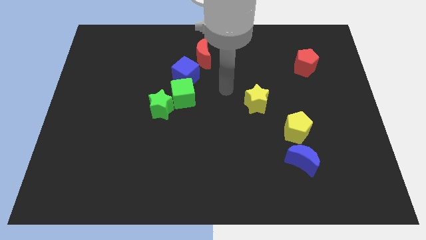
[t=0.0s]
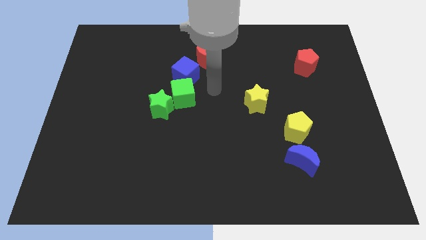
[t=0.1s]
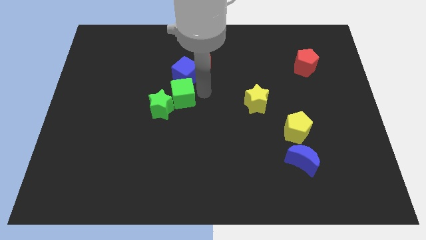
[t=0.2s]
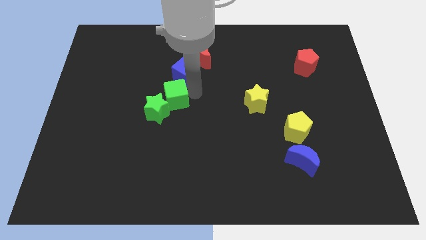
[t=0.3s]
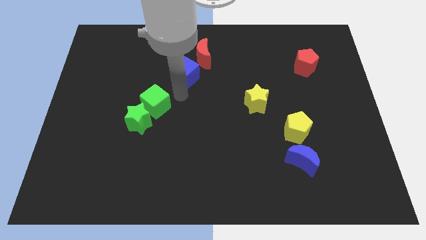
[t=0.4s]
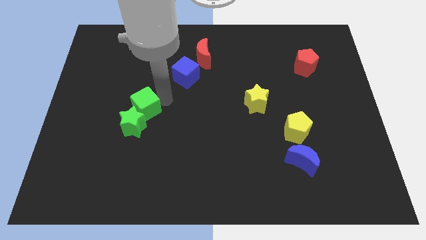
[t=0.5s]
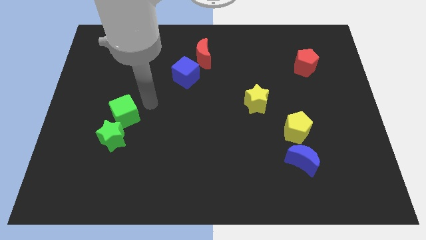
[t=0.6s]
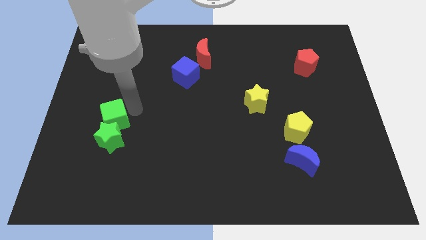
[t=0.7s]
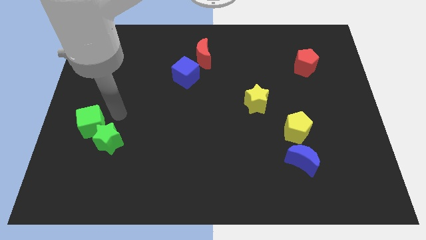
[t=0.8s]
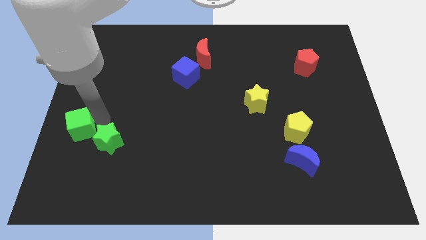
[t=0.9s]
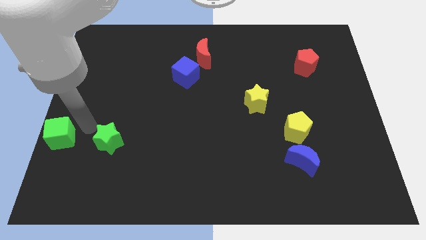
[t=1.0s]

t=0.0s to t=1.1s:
move the green star away from the green cube

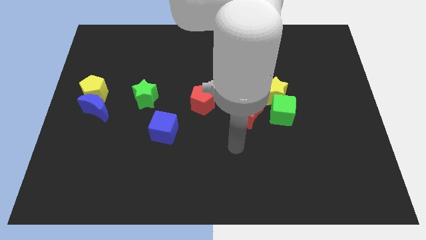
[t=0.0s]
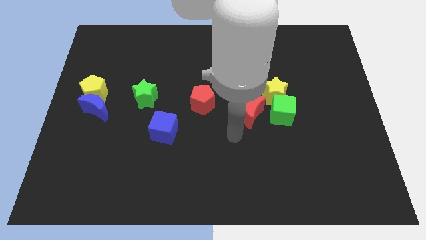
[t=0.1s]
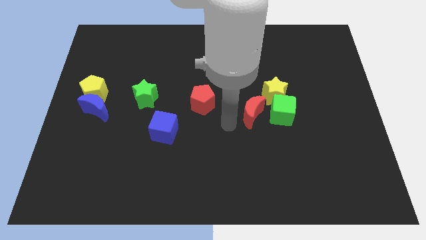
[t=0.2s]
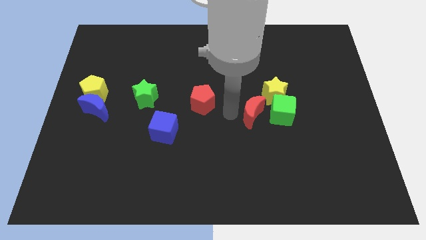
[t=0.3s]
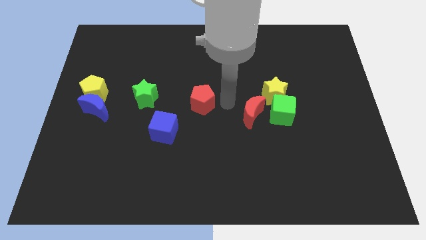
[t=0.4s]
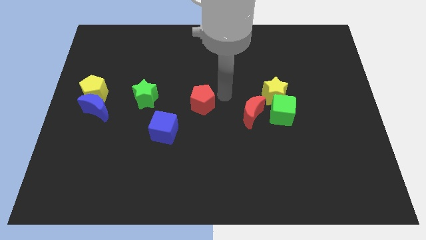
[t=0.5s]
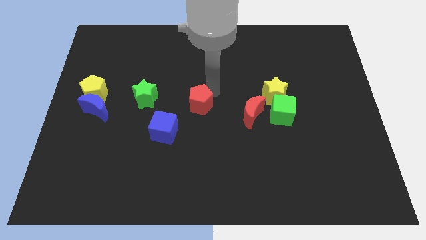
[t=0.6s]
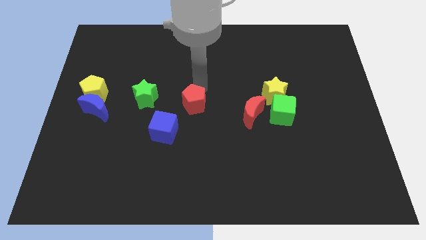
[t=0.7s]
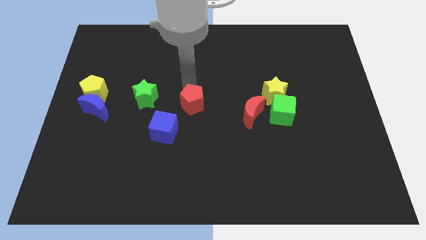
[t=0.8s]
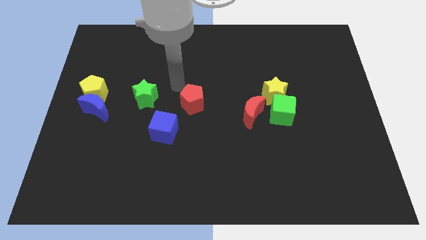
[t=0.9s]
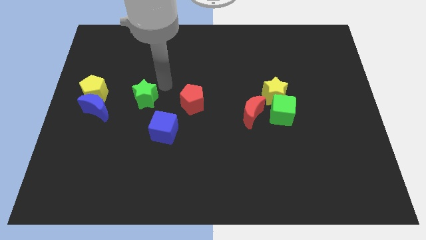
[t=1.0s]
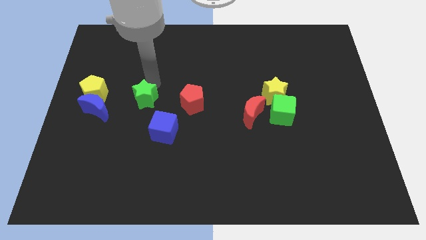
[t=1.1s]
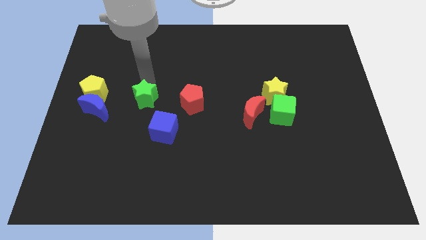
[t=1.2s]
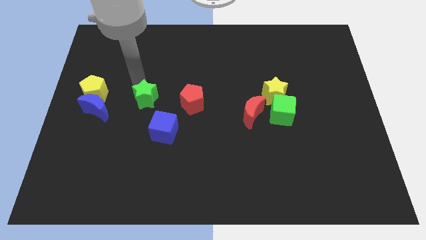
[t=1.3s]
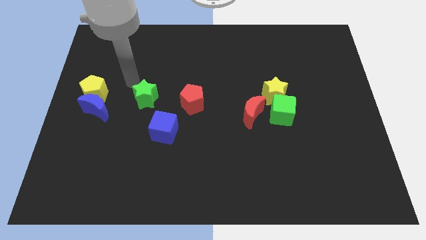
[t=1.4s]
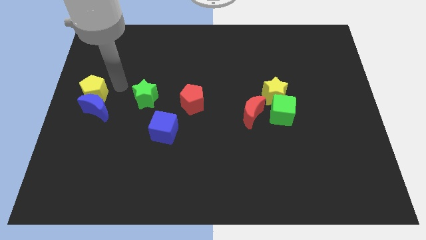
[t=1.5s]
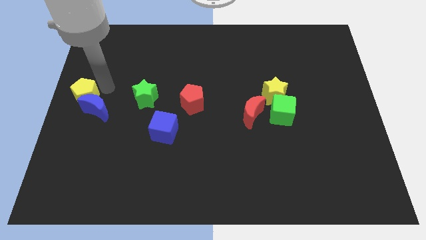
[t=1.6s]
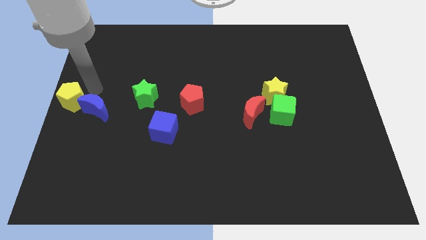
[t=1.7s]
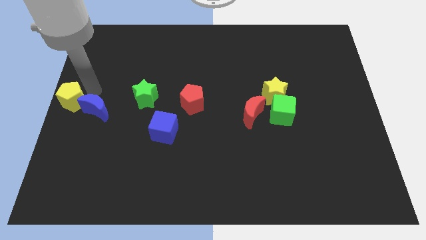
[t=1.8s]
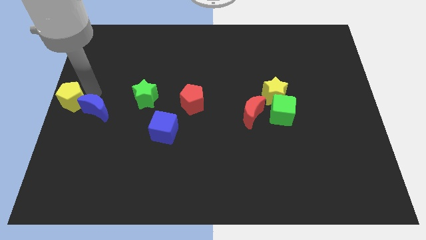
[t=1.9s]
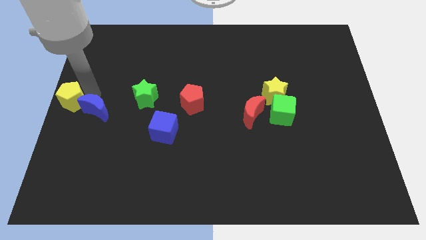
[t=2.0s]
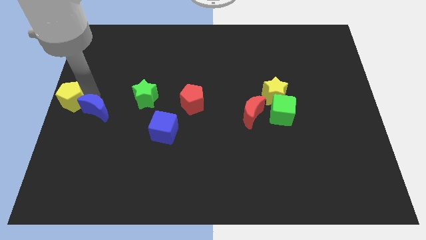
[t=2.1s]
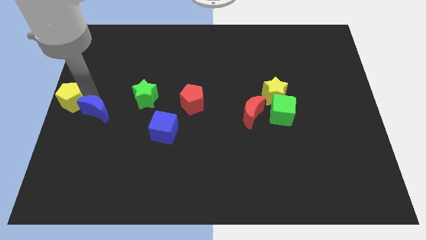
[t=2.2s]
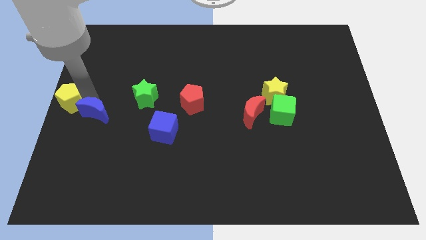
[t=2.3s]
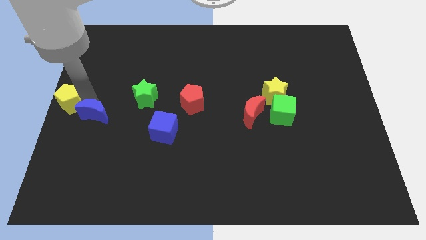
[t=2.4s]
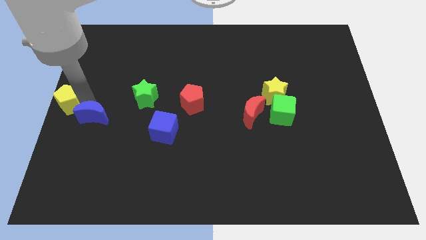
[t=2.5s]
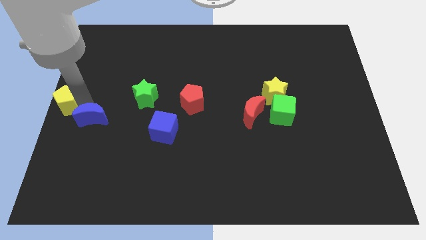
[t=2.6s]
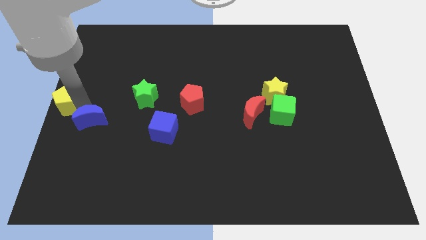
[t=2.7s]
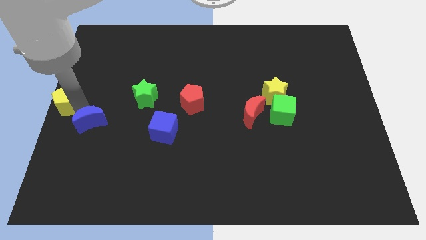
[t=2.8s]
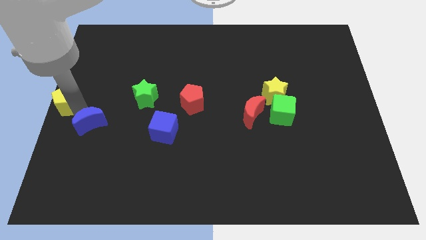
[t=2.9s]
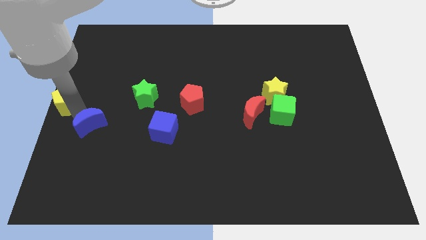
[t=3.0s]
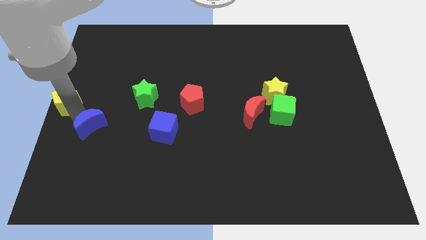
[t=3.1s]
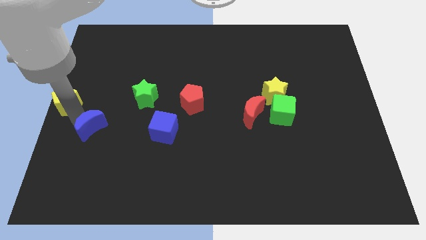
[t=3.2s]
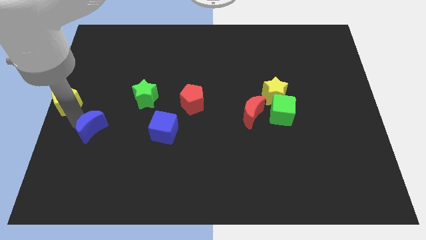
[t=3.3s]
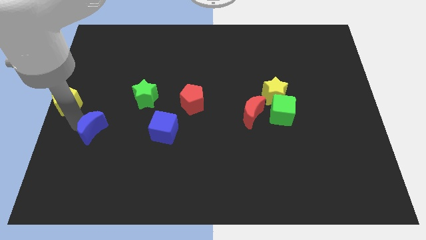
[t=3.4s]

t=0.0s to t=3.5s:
separate the blue moon from the yellow pentagon

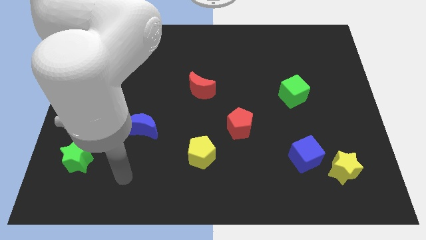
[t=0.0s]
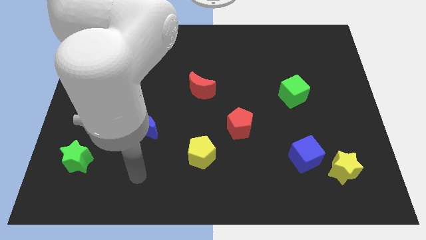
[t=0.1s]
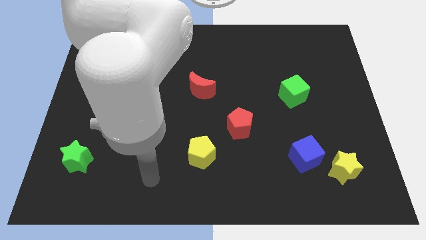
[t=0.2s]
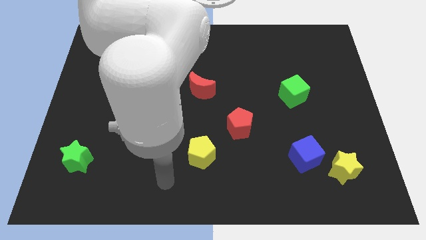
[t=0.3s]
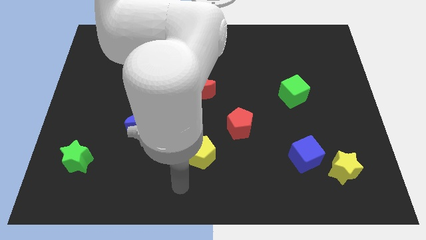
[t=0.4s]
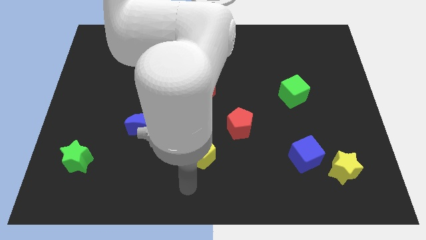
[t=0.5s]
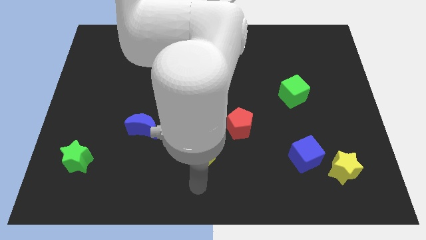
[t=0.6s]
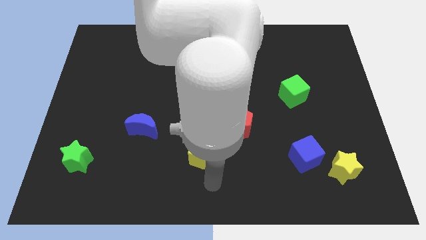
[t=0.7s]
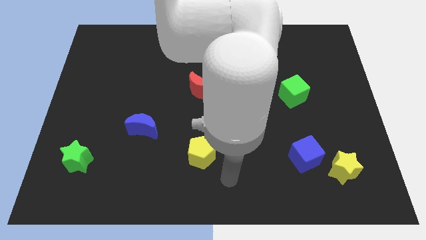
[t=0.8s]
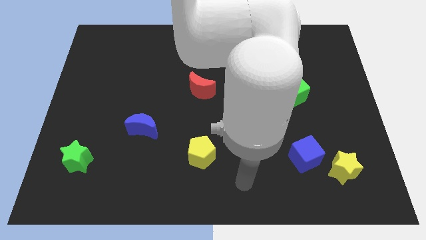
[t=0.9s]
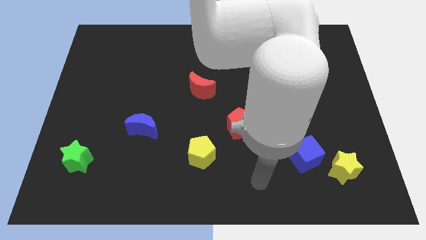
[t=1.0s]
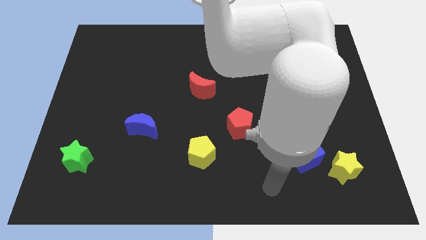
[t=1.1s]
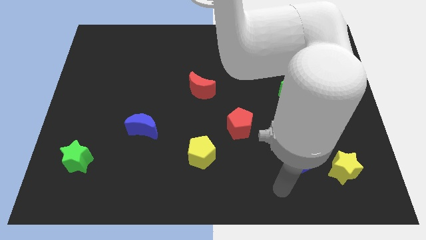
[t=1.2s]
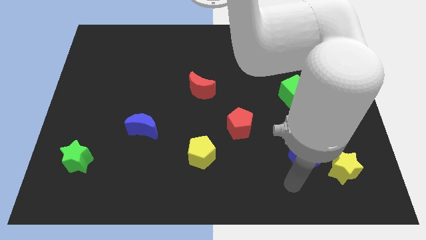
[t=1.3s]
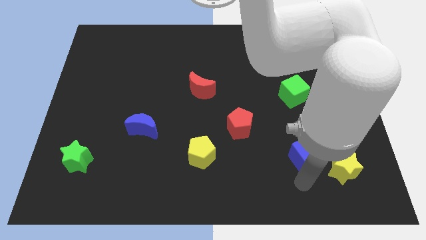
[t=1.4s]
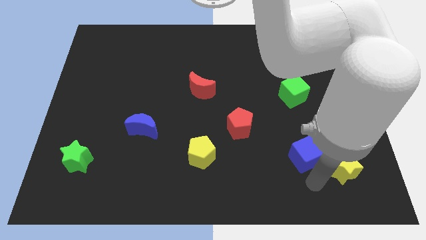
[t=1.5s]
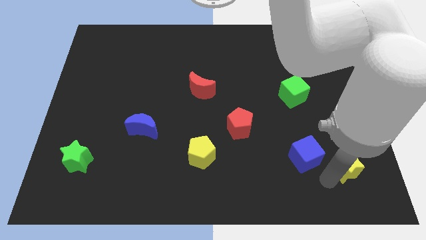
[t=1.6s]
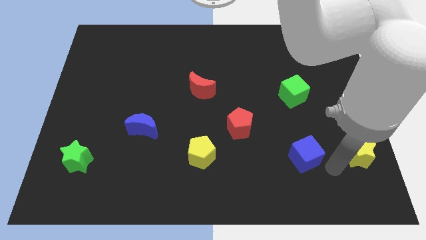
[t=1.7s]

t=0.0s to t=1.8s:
pull the blue cube apart from the yellow star

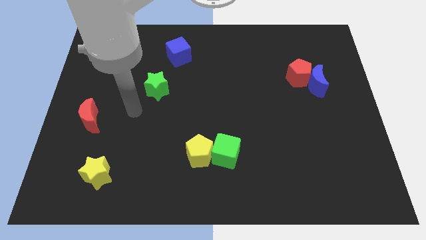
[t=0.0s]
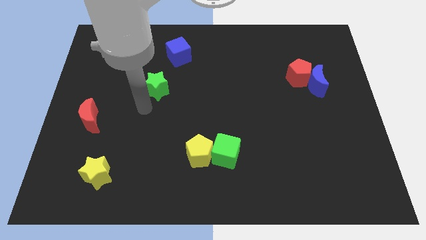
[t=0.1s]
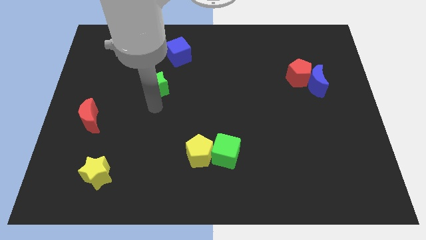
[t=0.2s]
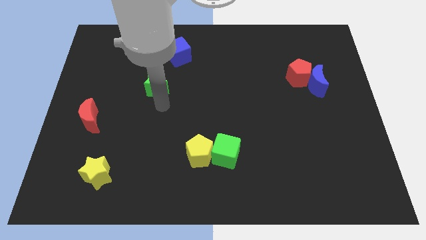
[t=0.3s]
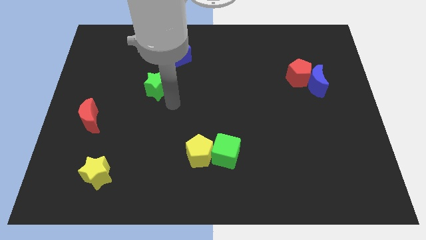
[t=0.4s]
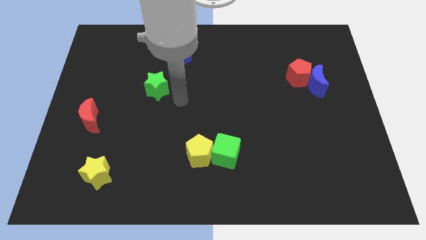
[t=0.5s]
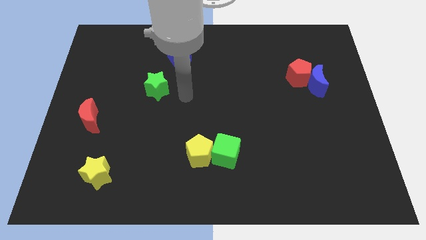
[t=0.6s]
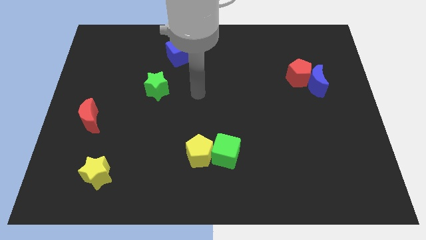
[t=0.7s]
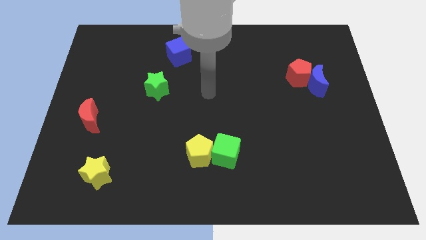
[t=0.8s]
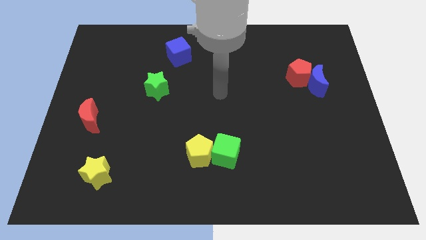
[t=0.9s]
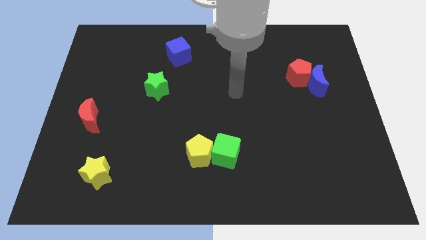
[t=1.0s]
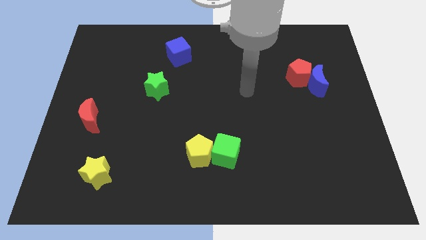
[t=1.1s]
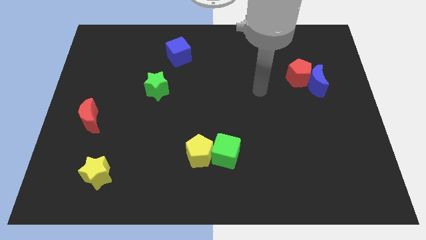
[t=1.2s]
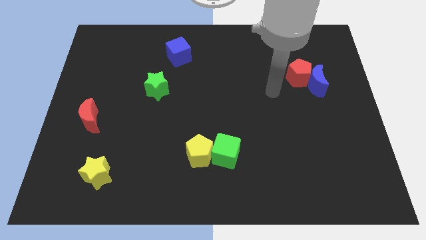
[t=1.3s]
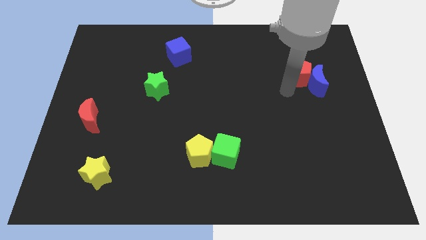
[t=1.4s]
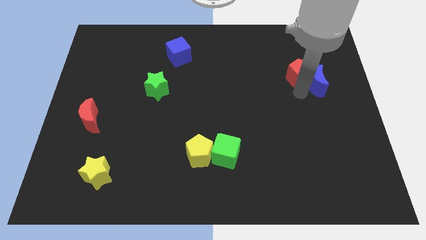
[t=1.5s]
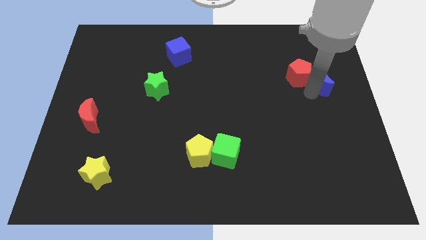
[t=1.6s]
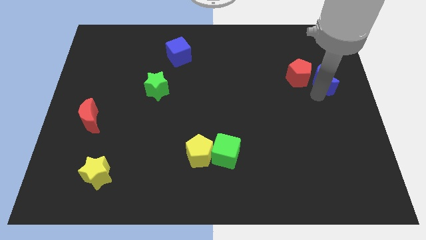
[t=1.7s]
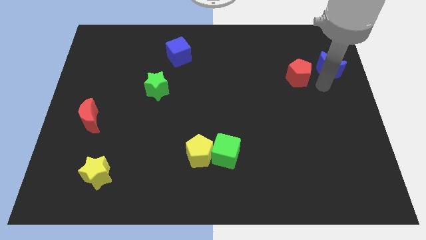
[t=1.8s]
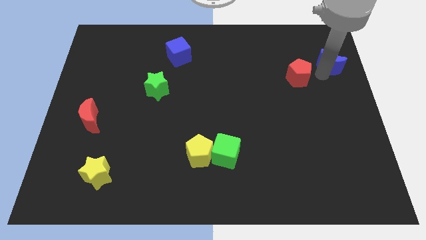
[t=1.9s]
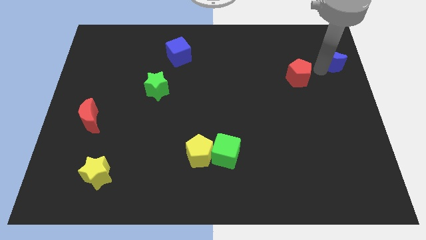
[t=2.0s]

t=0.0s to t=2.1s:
pull the red pentagon apart from the blue moon

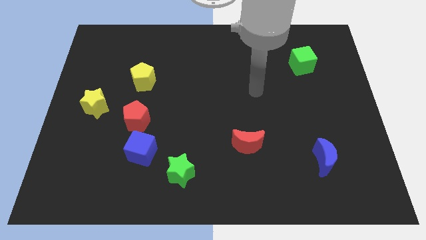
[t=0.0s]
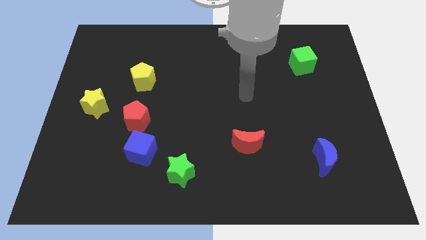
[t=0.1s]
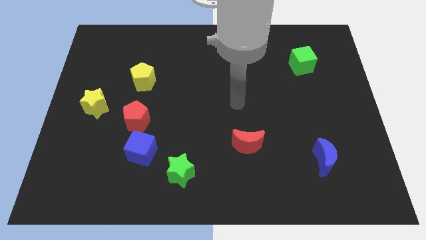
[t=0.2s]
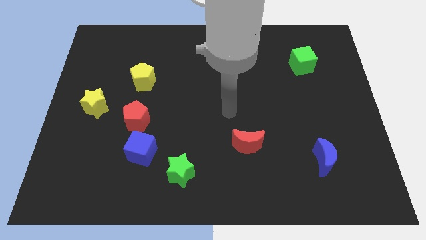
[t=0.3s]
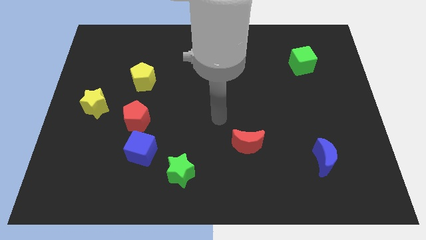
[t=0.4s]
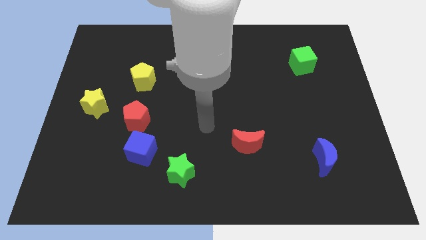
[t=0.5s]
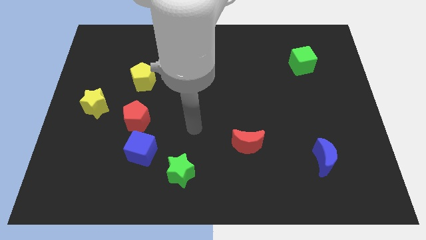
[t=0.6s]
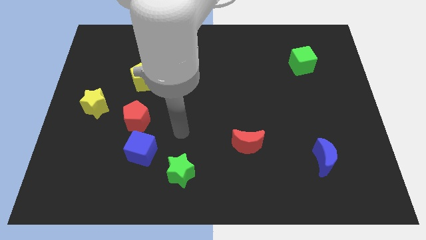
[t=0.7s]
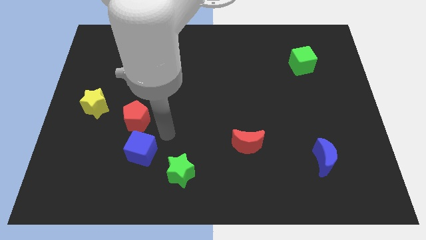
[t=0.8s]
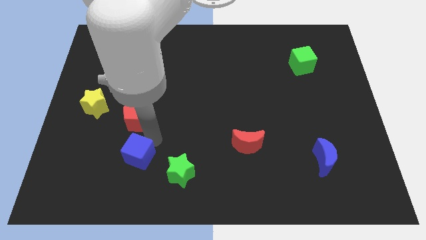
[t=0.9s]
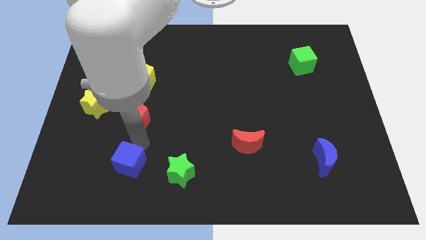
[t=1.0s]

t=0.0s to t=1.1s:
pull the red pentagon apart from the blue cube
